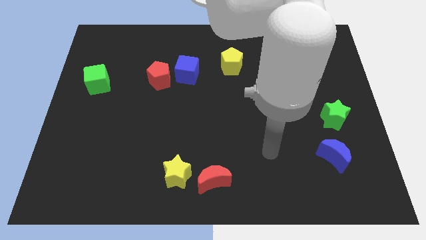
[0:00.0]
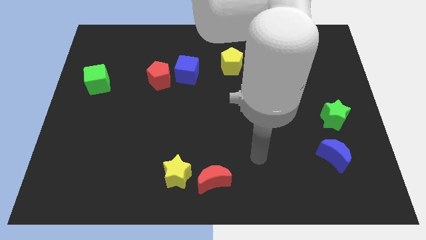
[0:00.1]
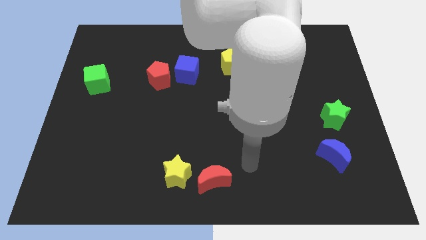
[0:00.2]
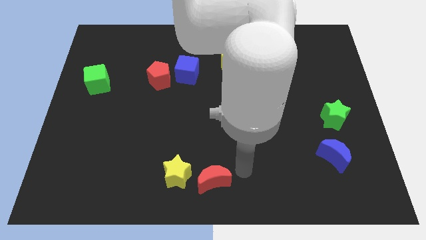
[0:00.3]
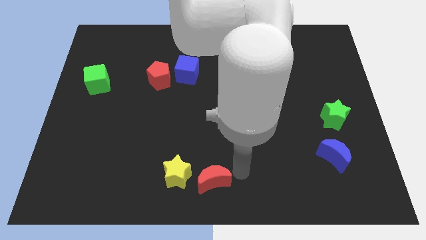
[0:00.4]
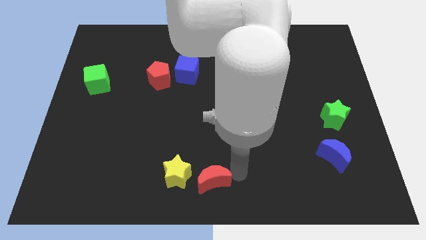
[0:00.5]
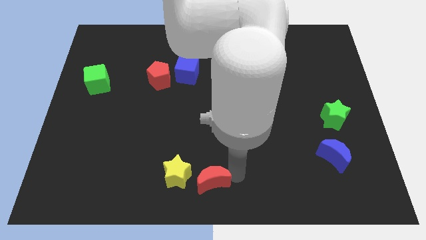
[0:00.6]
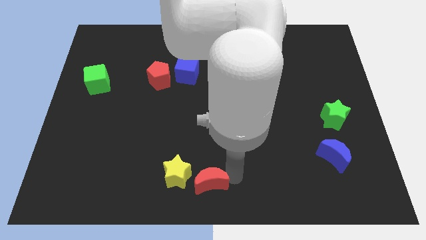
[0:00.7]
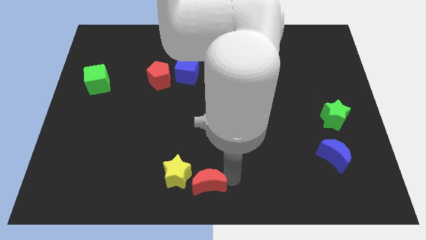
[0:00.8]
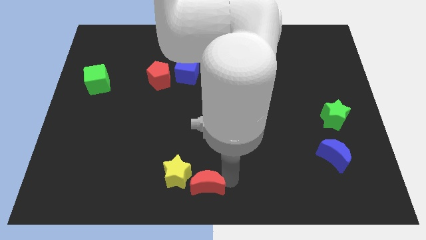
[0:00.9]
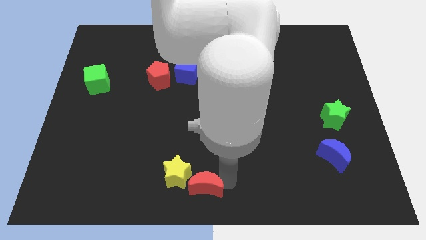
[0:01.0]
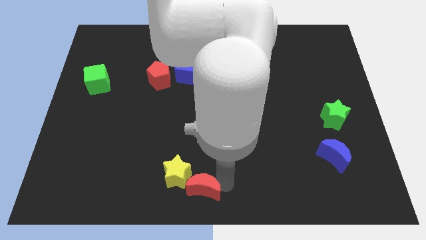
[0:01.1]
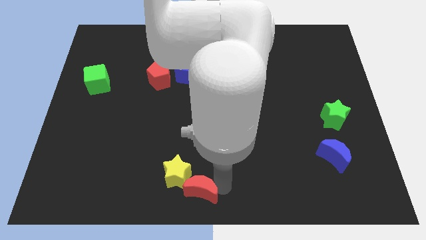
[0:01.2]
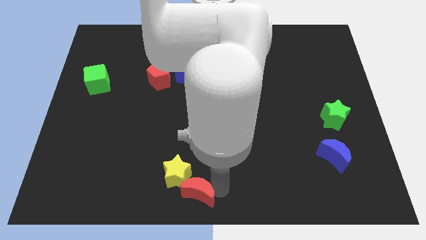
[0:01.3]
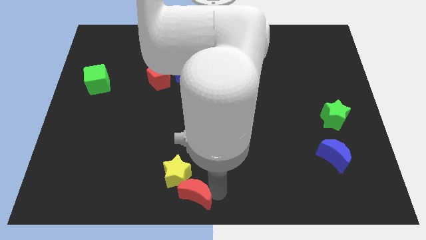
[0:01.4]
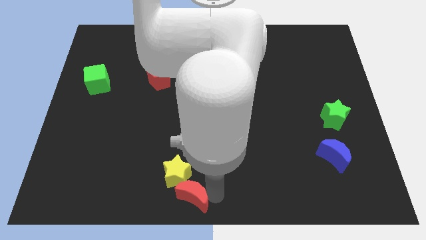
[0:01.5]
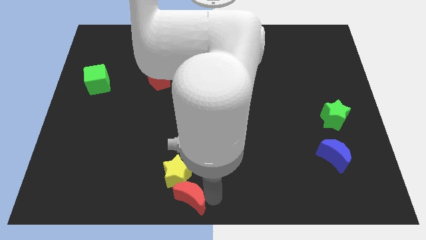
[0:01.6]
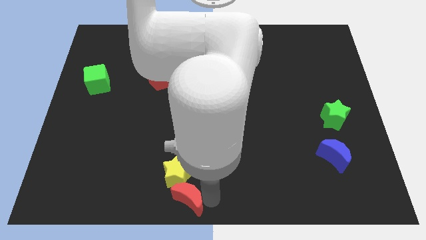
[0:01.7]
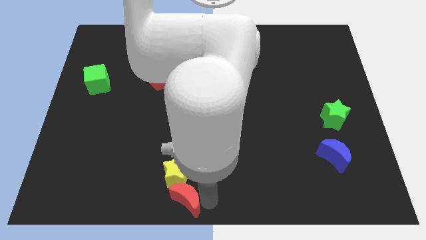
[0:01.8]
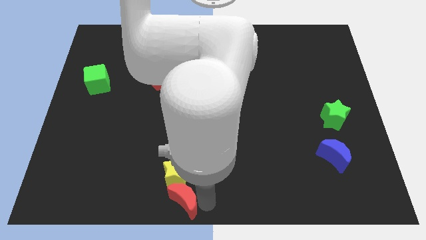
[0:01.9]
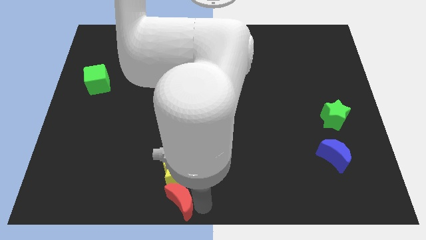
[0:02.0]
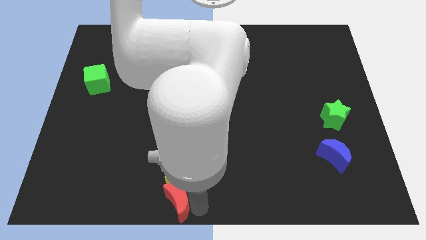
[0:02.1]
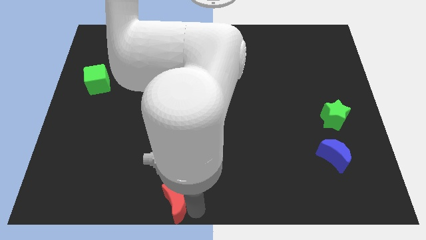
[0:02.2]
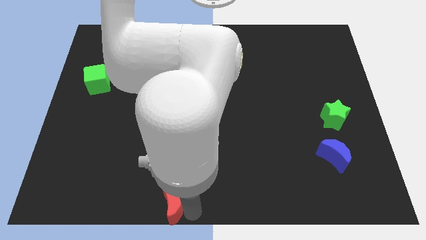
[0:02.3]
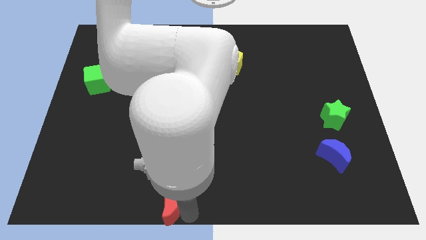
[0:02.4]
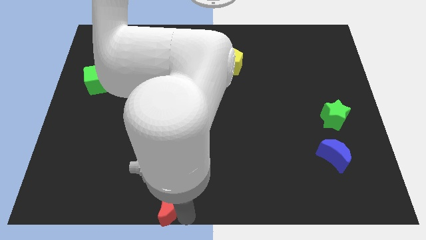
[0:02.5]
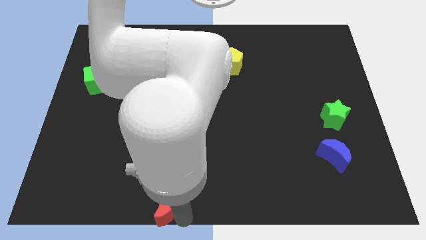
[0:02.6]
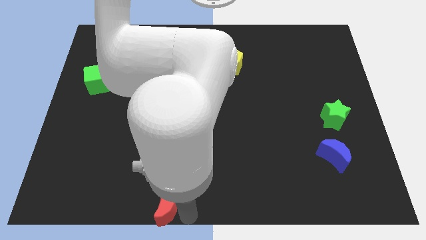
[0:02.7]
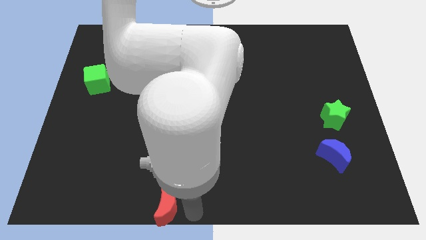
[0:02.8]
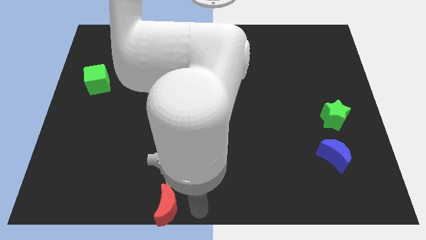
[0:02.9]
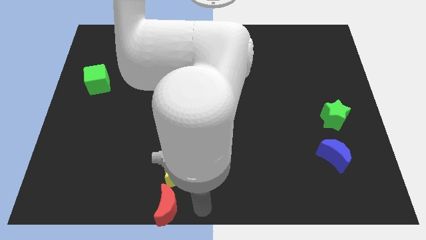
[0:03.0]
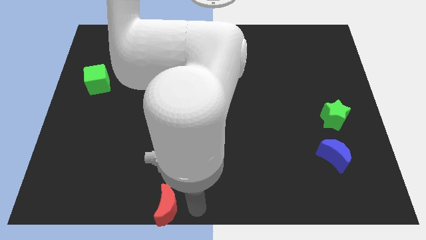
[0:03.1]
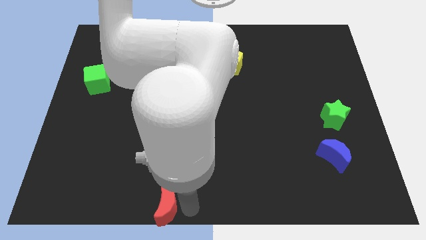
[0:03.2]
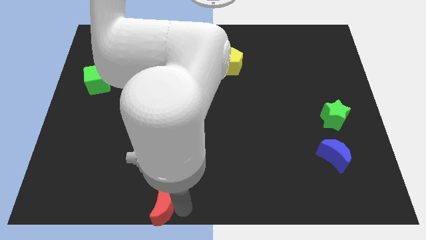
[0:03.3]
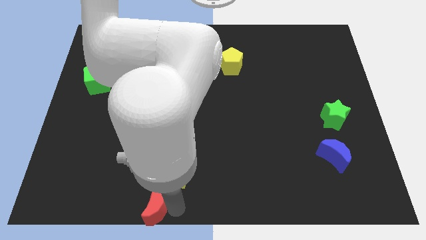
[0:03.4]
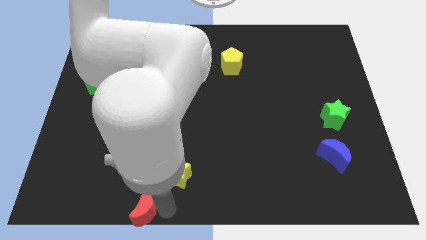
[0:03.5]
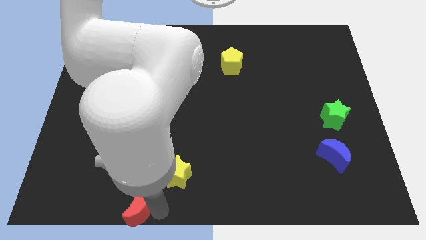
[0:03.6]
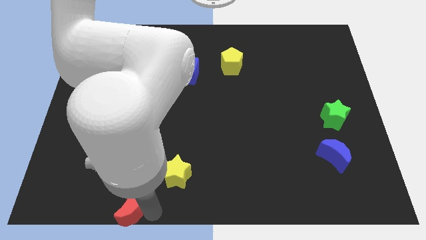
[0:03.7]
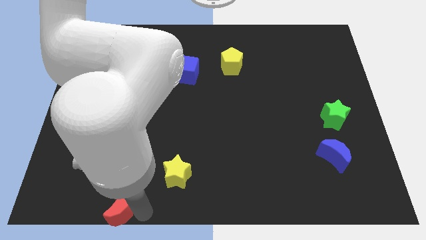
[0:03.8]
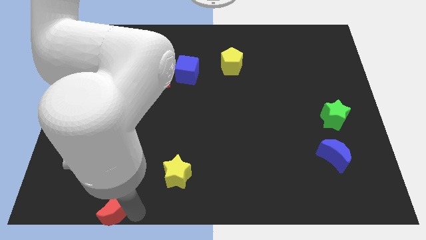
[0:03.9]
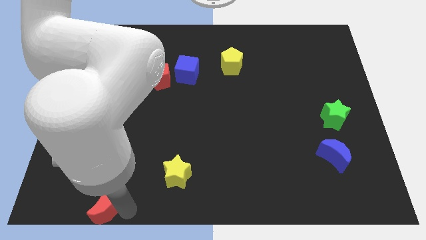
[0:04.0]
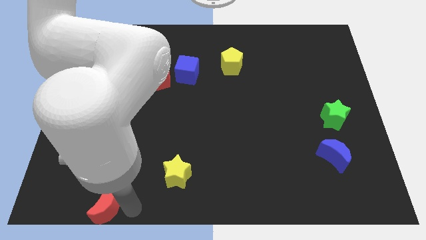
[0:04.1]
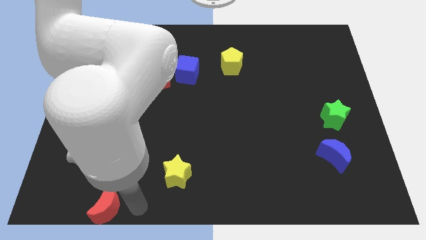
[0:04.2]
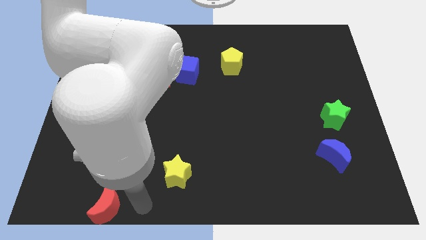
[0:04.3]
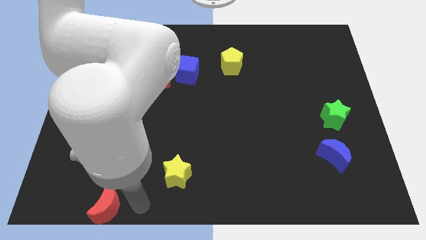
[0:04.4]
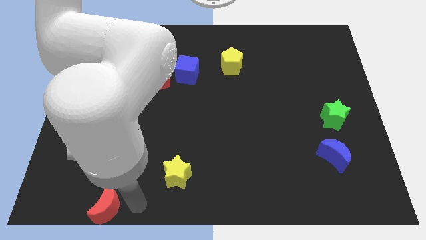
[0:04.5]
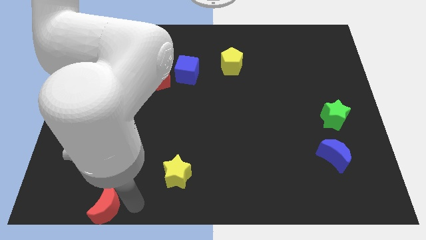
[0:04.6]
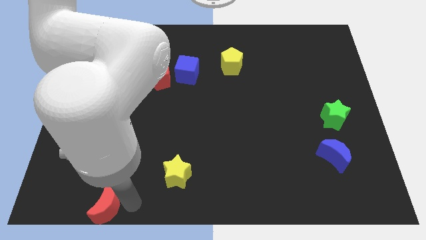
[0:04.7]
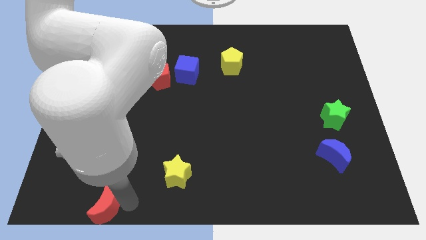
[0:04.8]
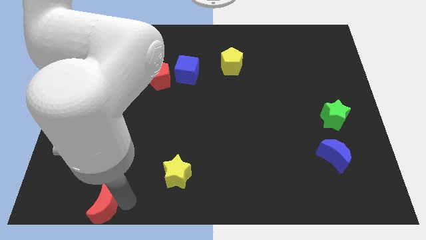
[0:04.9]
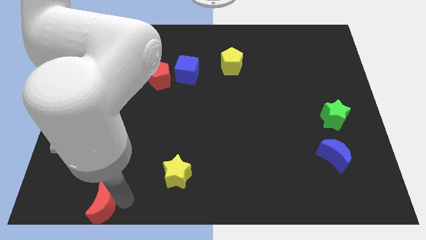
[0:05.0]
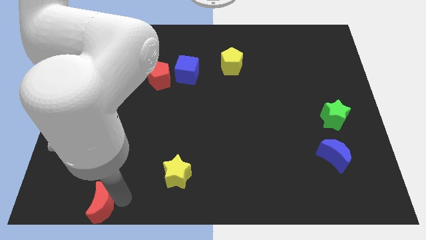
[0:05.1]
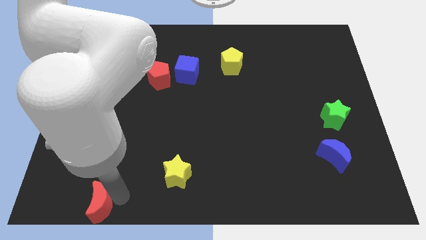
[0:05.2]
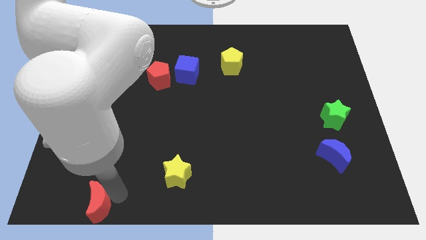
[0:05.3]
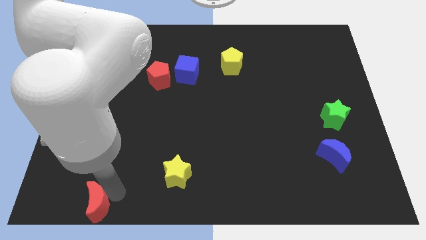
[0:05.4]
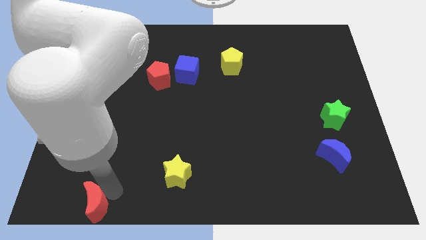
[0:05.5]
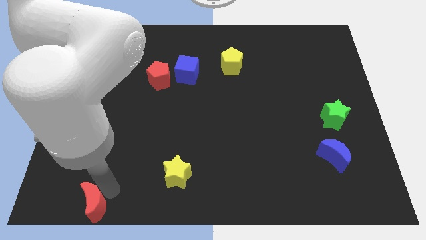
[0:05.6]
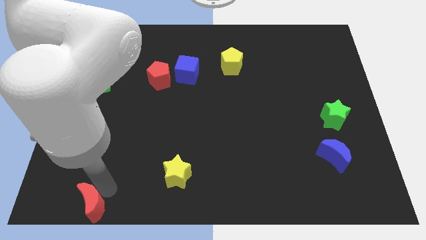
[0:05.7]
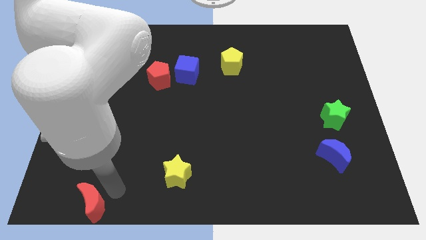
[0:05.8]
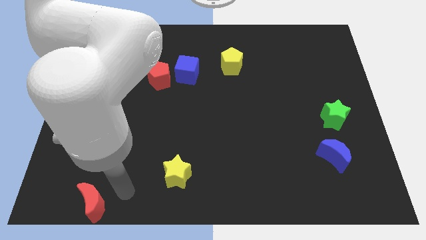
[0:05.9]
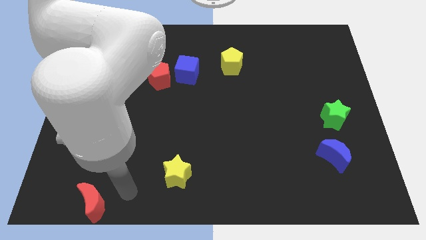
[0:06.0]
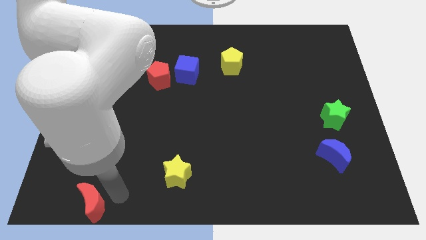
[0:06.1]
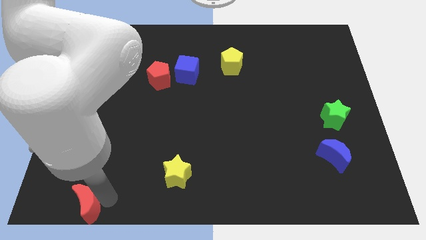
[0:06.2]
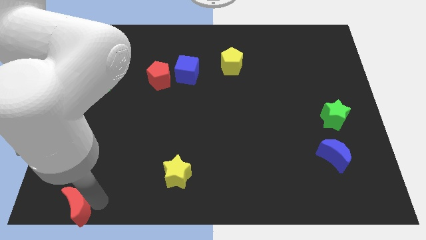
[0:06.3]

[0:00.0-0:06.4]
put the red moon to the lower left corner
